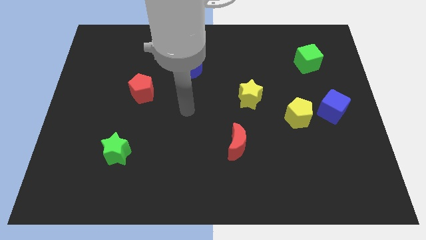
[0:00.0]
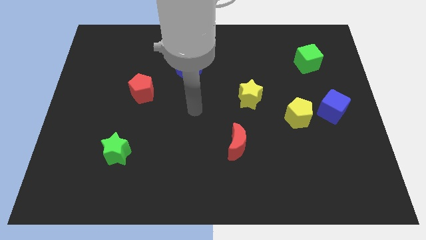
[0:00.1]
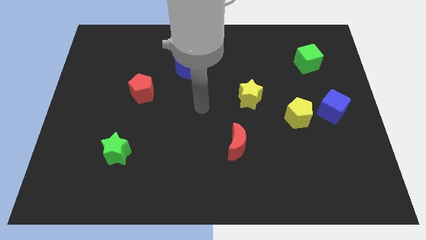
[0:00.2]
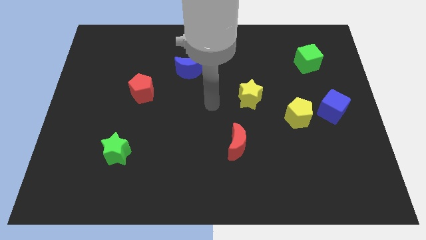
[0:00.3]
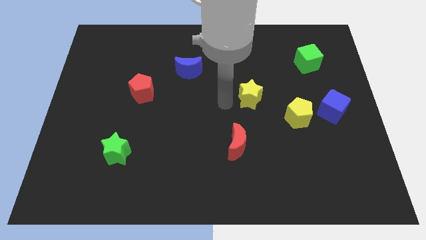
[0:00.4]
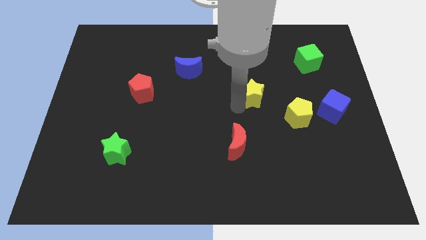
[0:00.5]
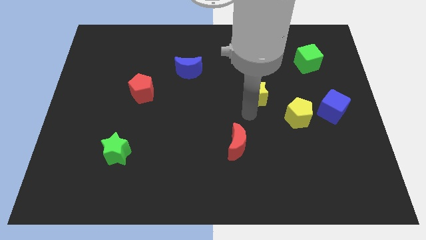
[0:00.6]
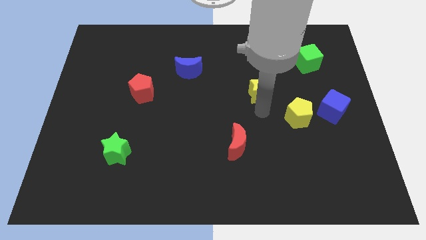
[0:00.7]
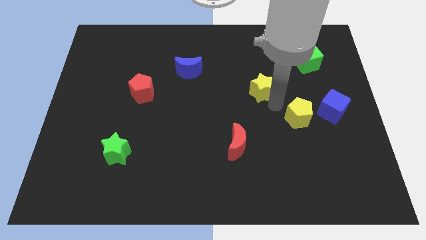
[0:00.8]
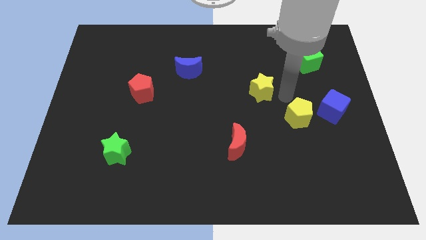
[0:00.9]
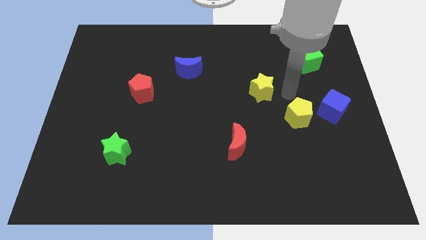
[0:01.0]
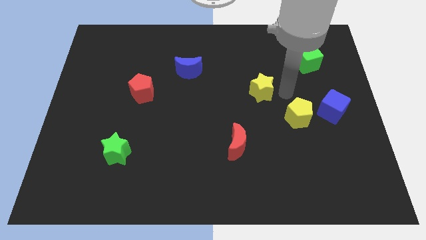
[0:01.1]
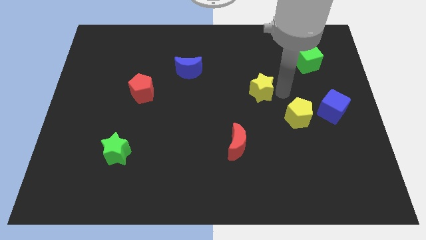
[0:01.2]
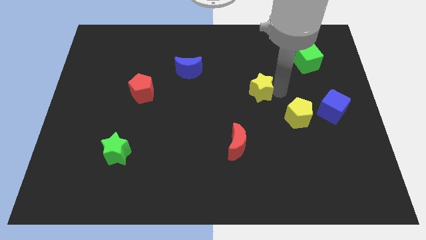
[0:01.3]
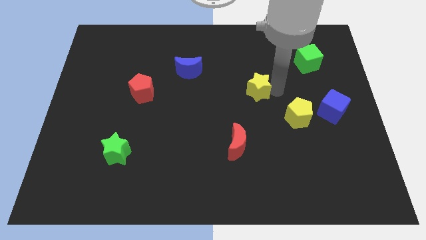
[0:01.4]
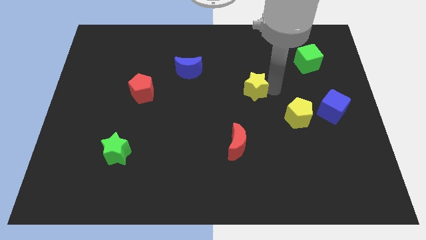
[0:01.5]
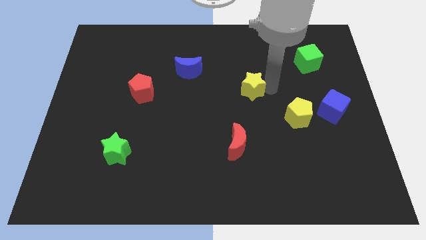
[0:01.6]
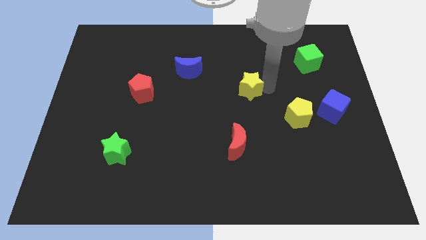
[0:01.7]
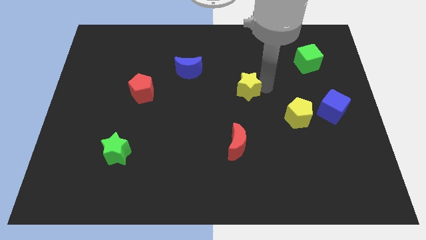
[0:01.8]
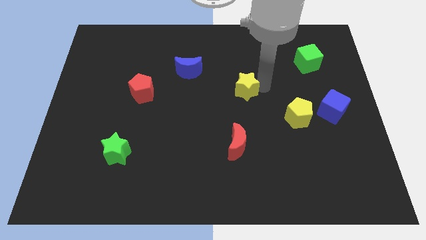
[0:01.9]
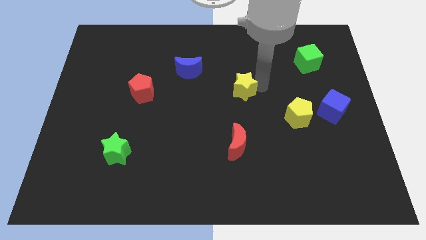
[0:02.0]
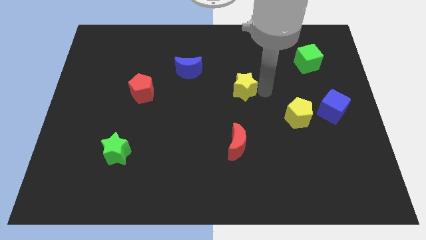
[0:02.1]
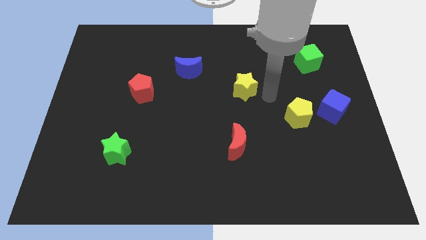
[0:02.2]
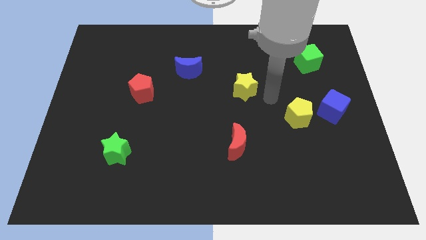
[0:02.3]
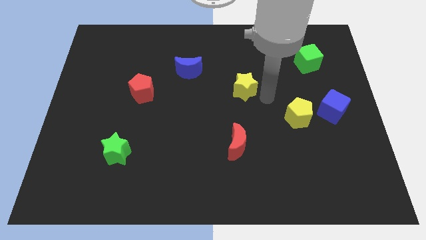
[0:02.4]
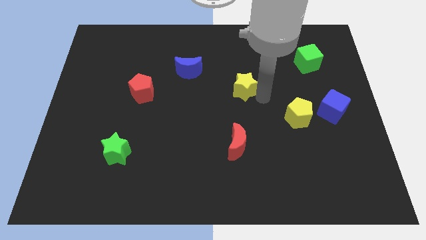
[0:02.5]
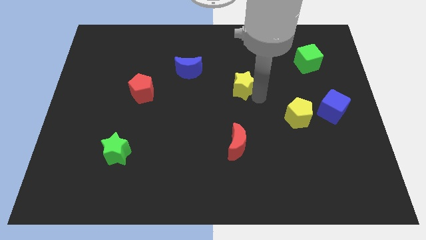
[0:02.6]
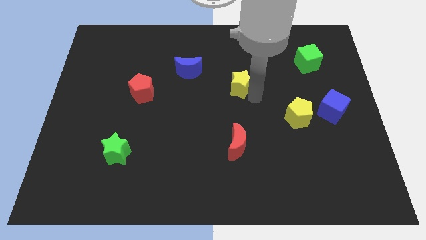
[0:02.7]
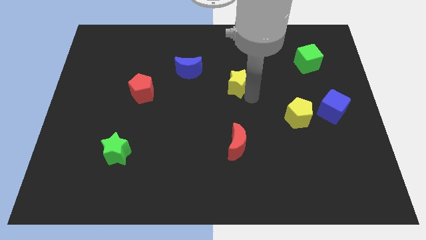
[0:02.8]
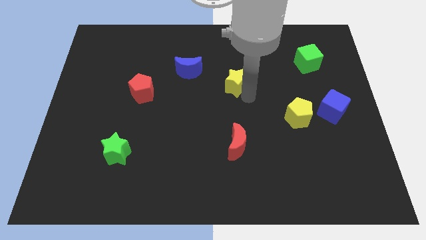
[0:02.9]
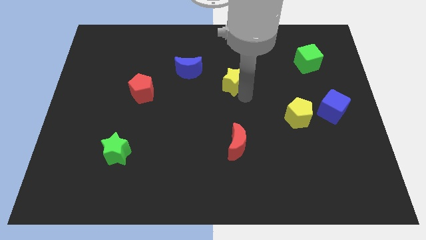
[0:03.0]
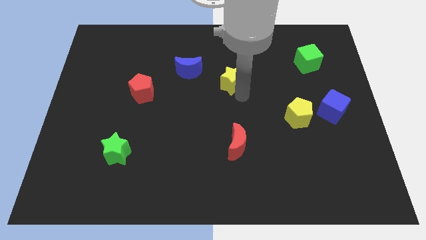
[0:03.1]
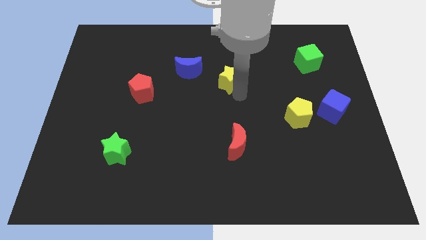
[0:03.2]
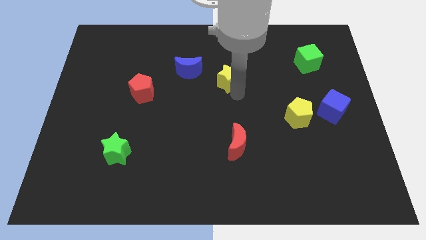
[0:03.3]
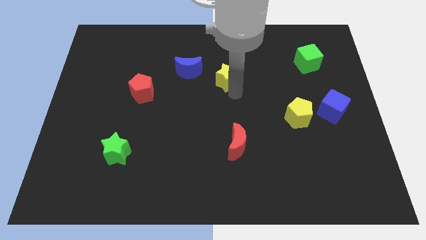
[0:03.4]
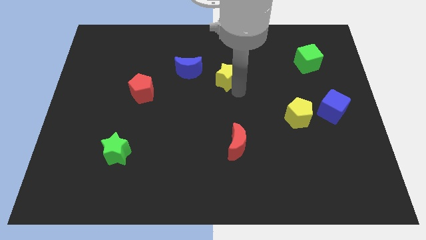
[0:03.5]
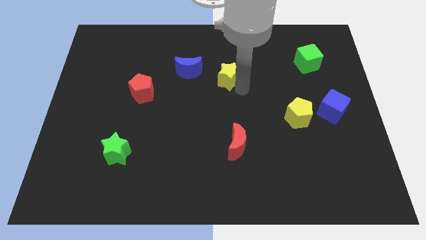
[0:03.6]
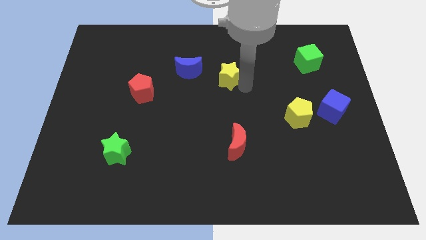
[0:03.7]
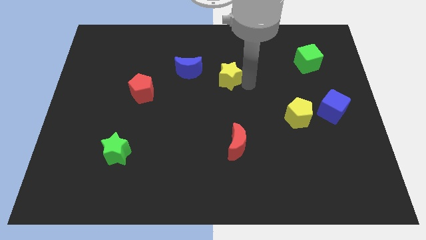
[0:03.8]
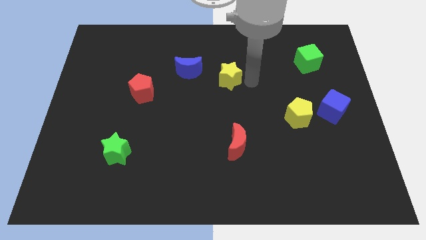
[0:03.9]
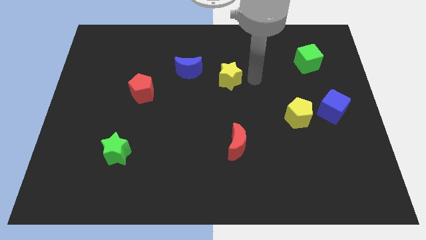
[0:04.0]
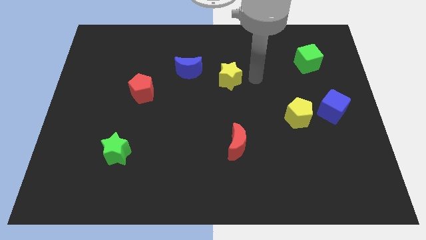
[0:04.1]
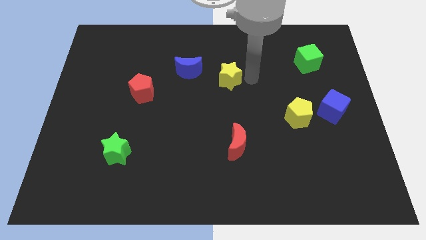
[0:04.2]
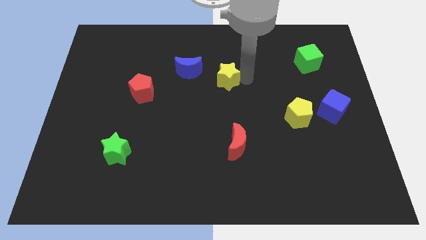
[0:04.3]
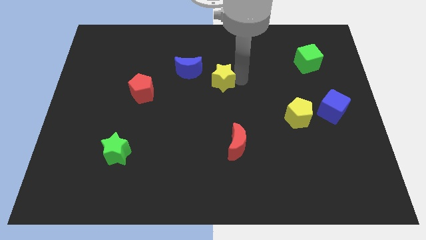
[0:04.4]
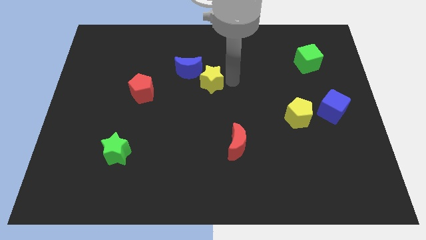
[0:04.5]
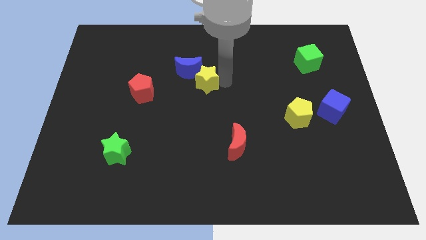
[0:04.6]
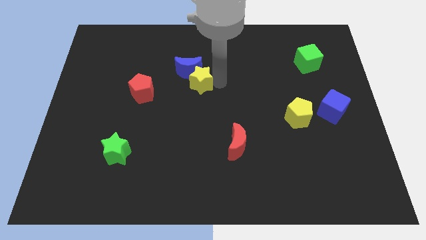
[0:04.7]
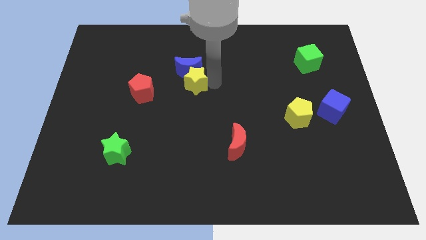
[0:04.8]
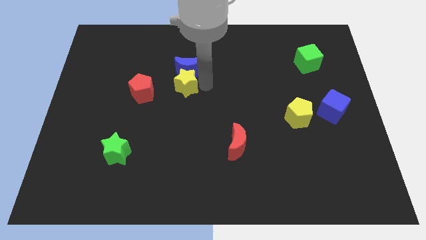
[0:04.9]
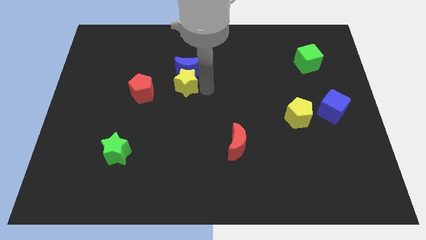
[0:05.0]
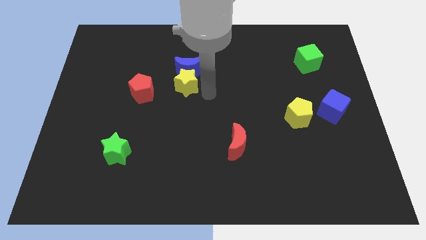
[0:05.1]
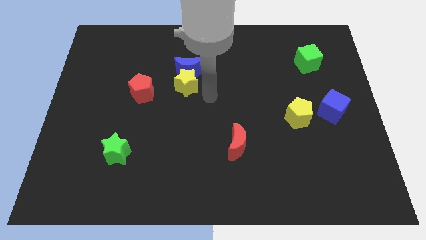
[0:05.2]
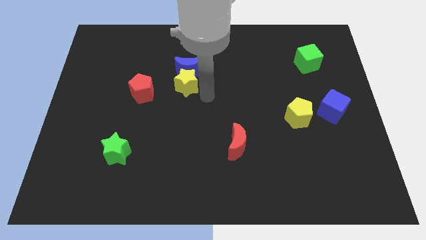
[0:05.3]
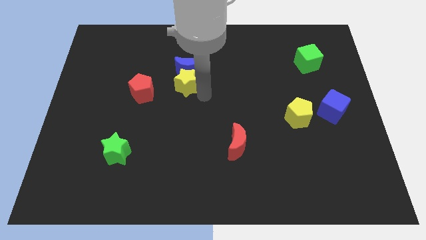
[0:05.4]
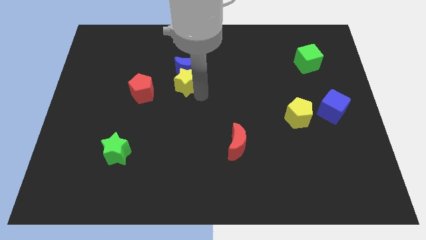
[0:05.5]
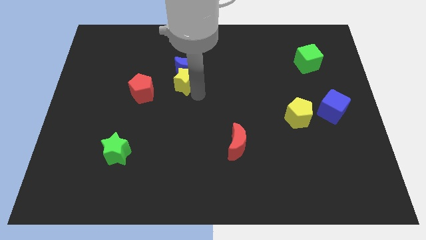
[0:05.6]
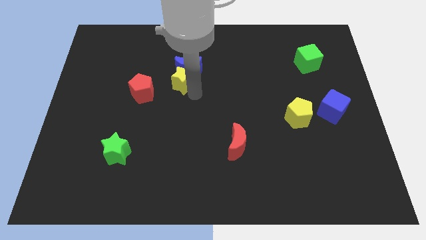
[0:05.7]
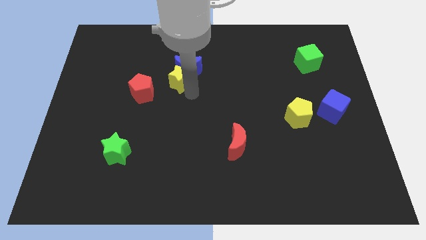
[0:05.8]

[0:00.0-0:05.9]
put the yellow star to the top right side of the red pentagon
